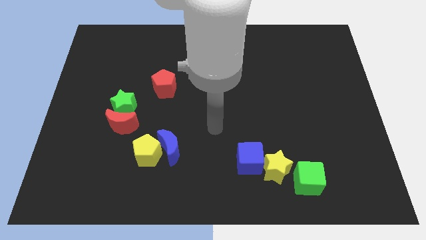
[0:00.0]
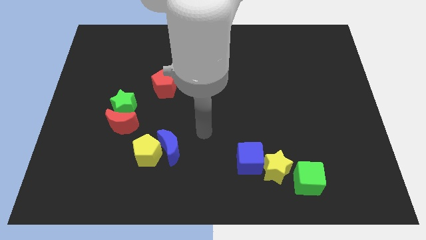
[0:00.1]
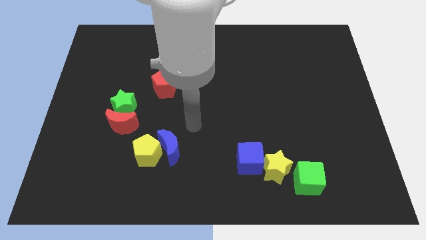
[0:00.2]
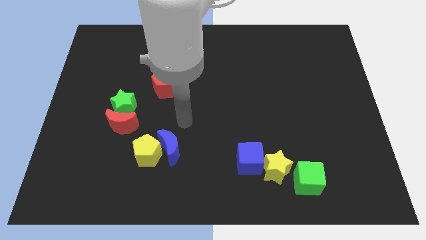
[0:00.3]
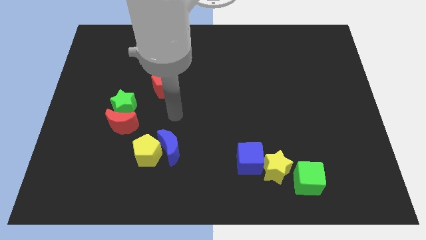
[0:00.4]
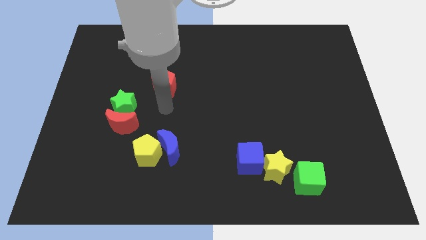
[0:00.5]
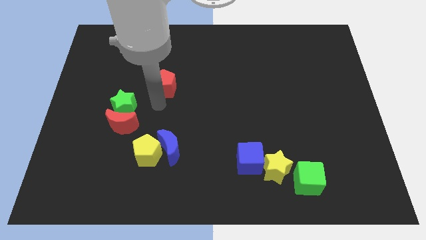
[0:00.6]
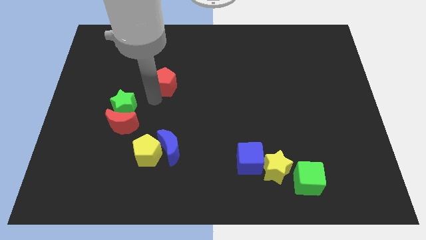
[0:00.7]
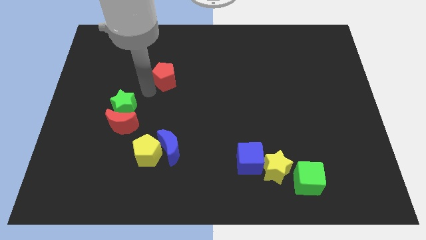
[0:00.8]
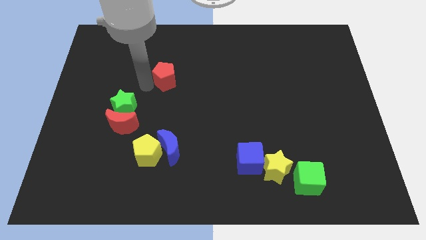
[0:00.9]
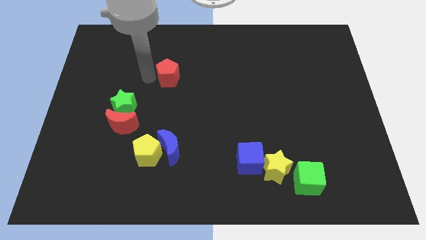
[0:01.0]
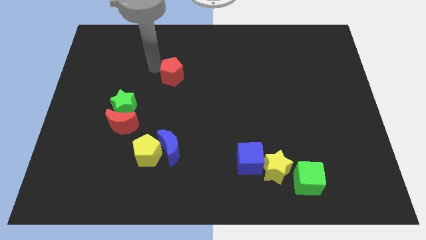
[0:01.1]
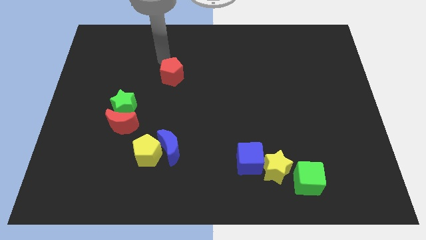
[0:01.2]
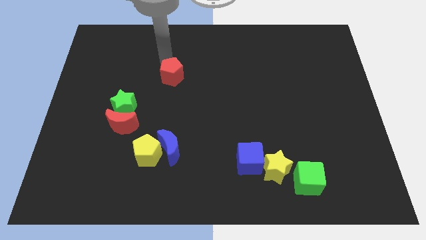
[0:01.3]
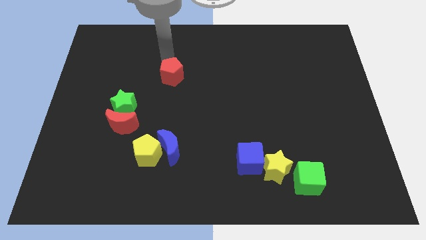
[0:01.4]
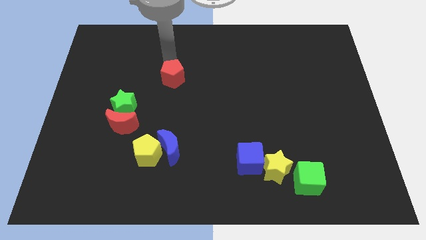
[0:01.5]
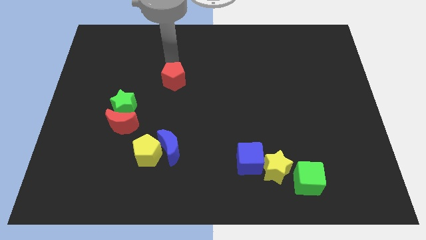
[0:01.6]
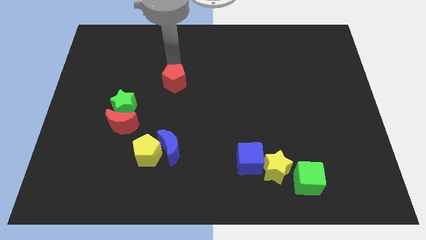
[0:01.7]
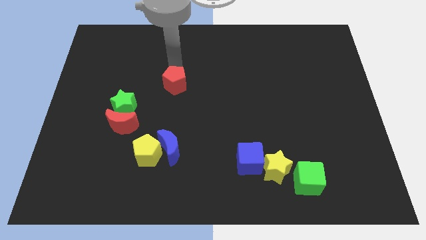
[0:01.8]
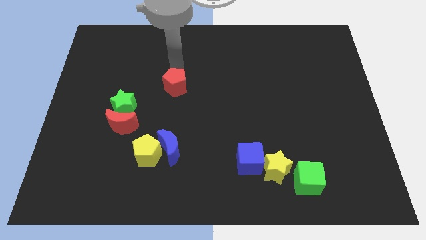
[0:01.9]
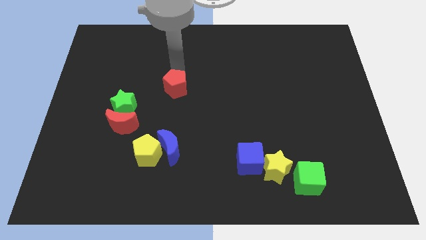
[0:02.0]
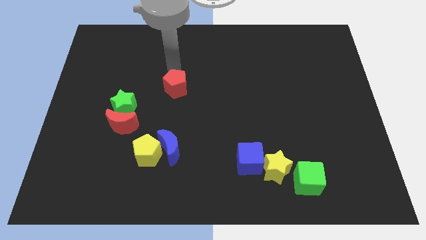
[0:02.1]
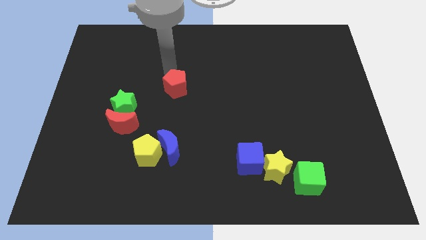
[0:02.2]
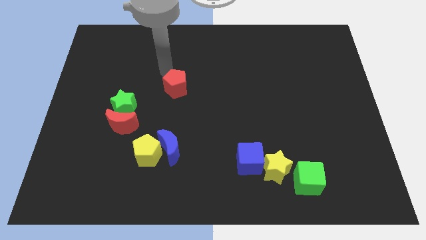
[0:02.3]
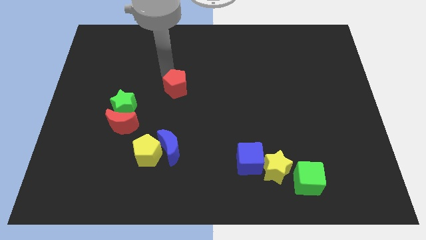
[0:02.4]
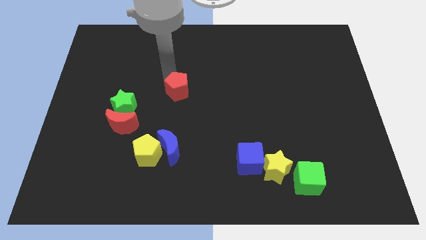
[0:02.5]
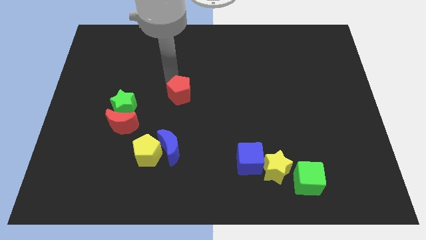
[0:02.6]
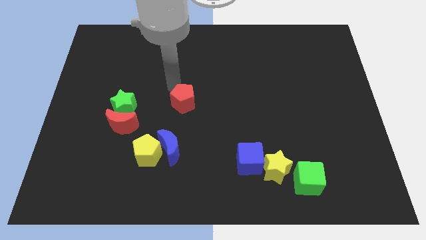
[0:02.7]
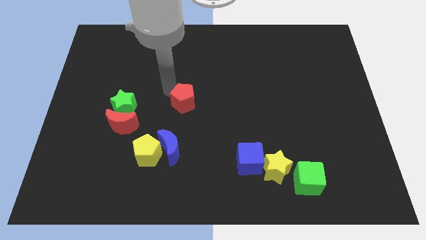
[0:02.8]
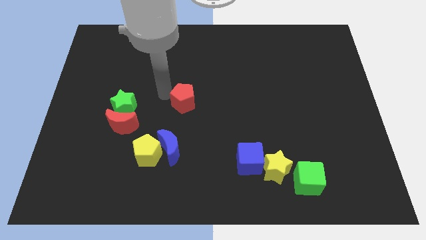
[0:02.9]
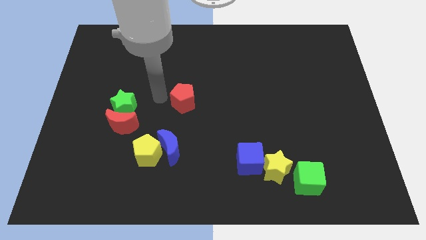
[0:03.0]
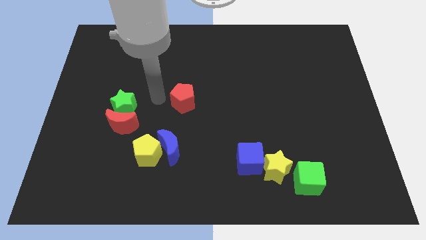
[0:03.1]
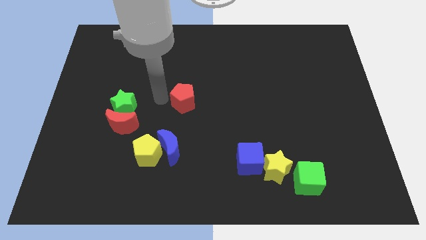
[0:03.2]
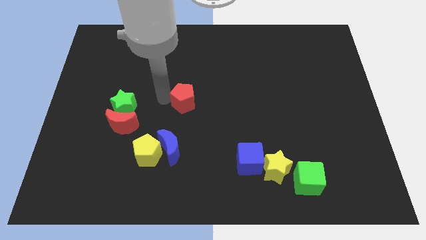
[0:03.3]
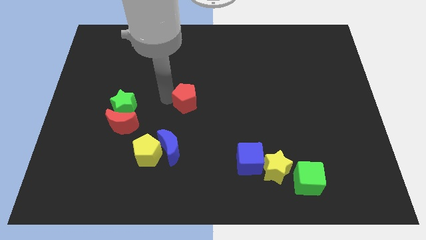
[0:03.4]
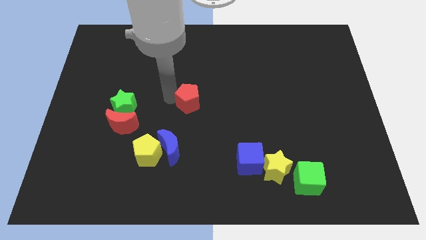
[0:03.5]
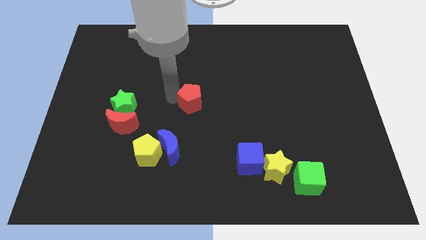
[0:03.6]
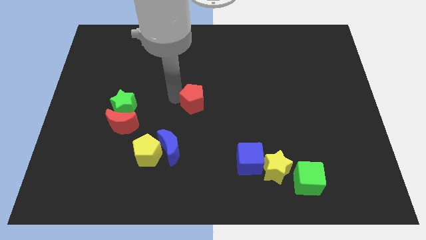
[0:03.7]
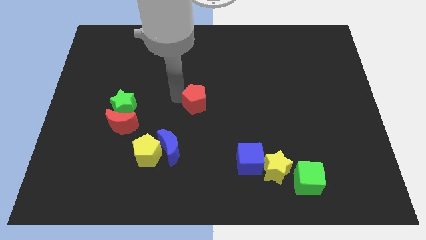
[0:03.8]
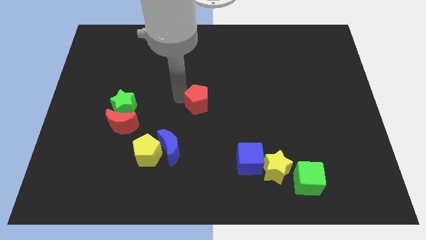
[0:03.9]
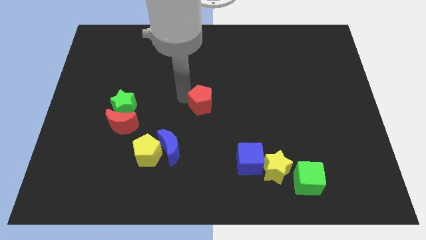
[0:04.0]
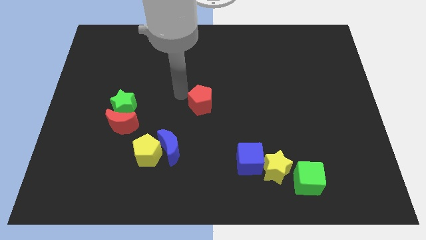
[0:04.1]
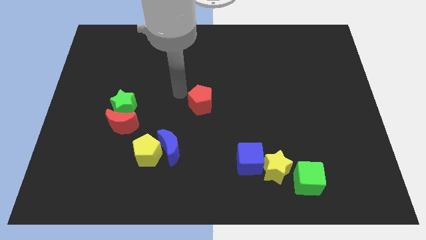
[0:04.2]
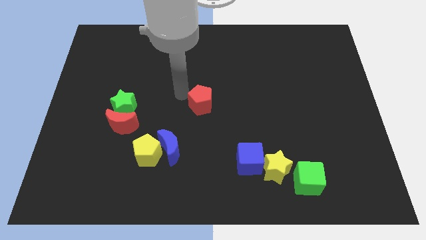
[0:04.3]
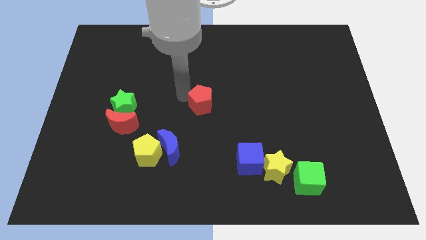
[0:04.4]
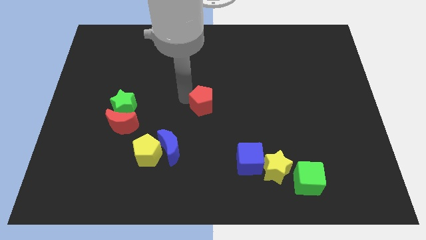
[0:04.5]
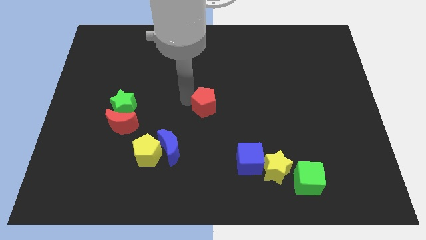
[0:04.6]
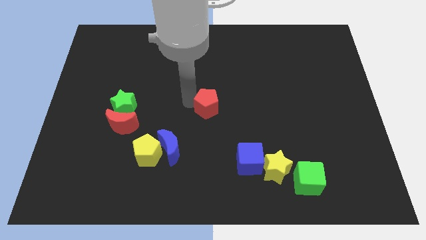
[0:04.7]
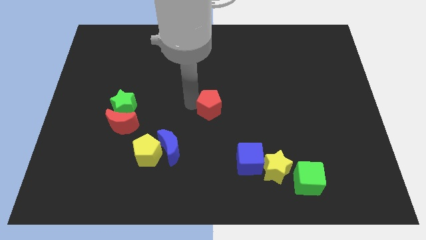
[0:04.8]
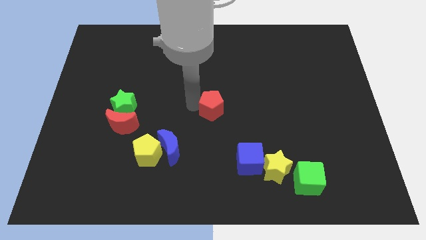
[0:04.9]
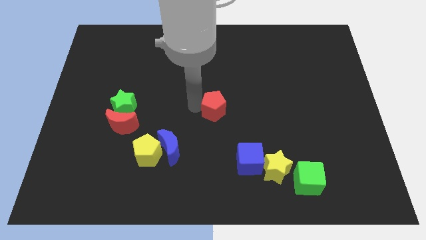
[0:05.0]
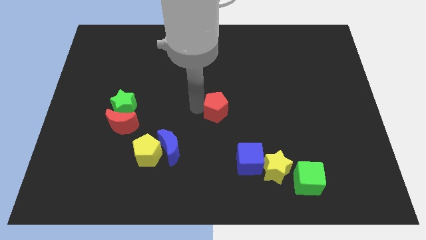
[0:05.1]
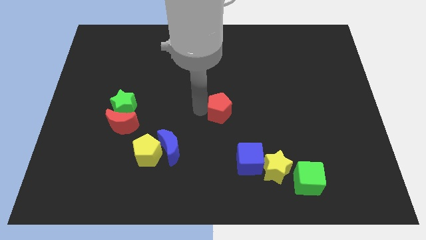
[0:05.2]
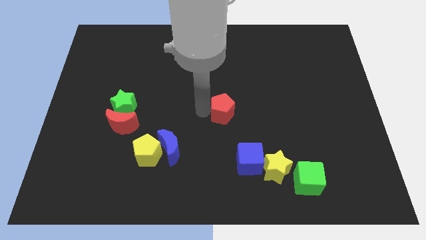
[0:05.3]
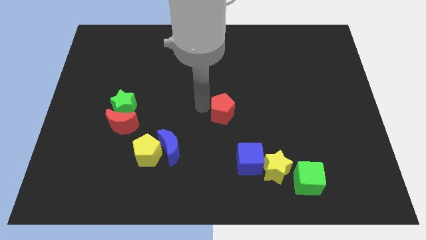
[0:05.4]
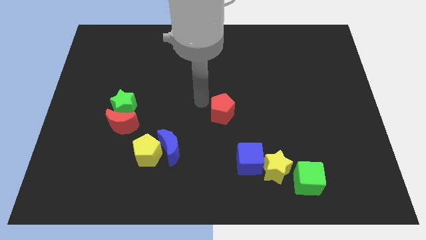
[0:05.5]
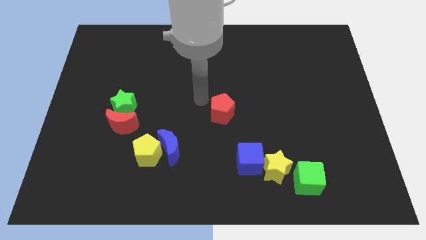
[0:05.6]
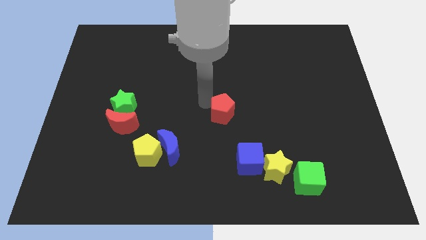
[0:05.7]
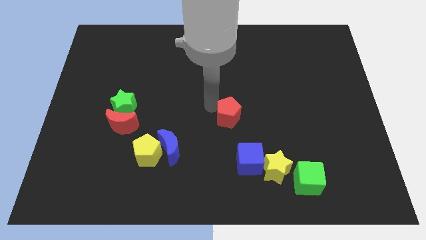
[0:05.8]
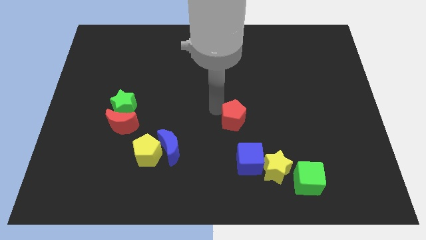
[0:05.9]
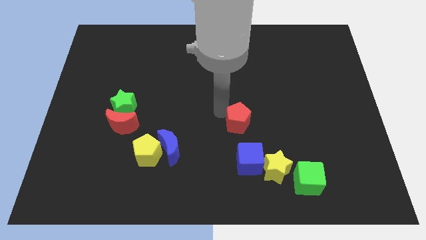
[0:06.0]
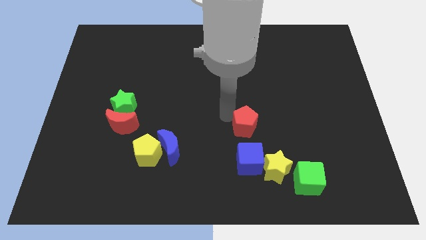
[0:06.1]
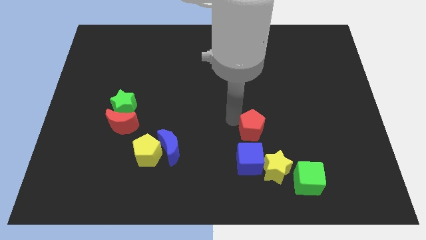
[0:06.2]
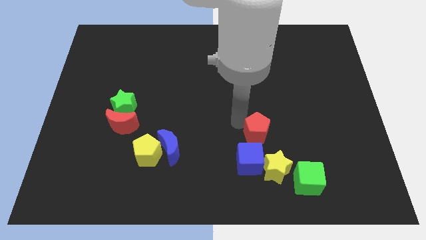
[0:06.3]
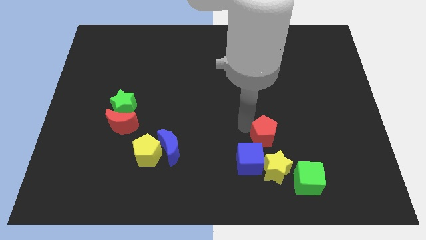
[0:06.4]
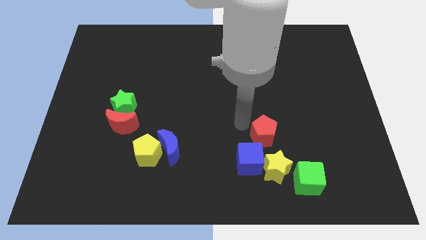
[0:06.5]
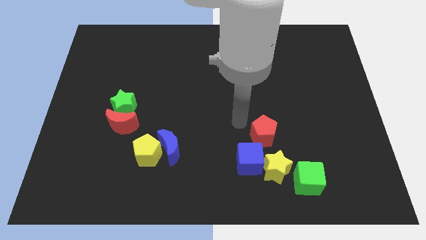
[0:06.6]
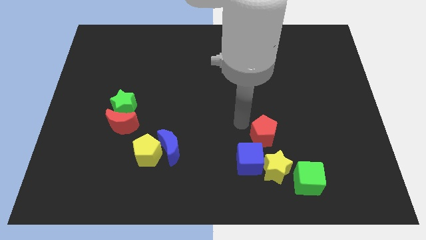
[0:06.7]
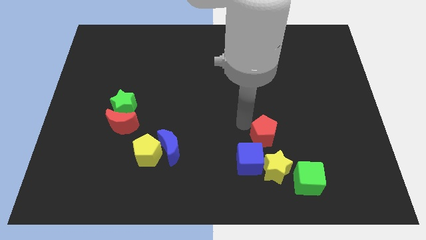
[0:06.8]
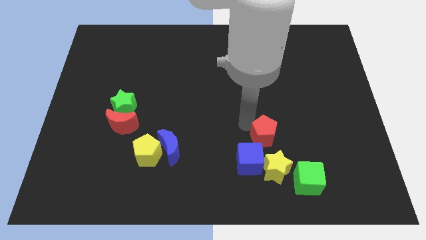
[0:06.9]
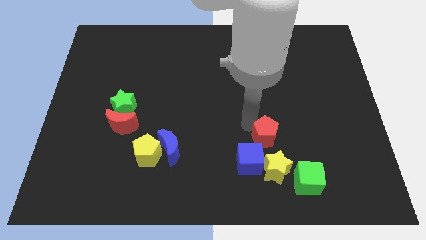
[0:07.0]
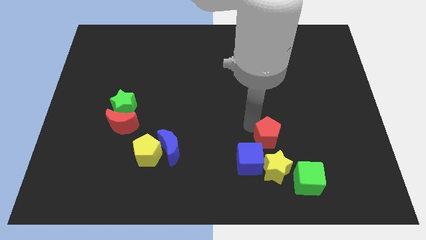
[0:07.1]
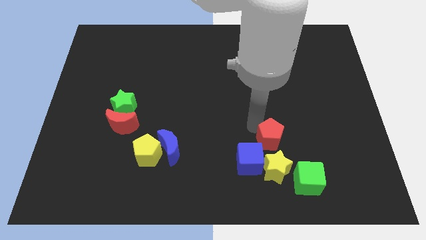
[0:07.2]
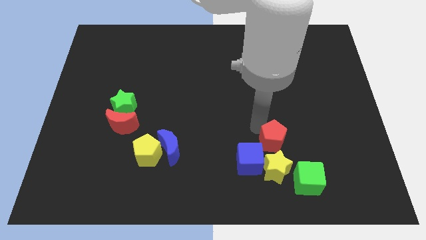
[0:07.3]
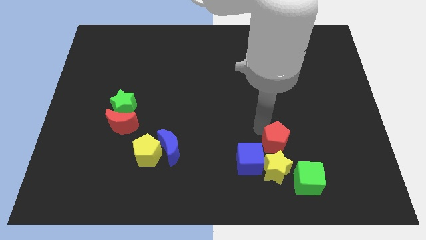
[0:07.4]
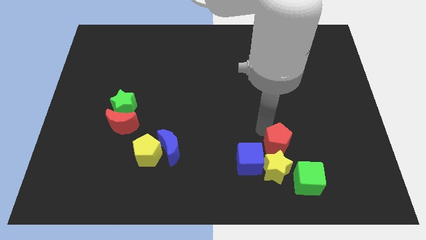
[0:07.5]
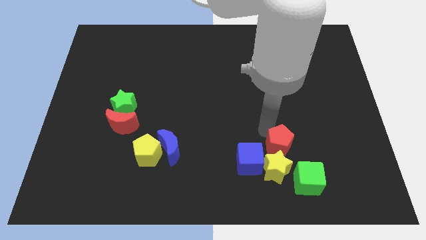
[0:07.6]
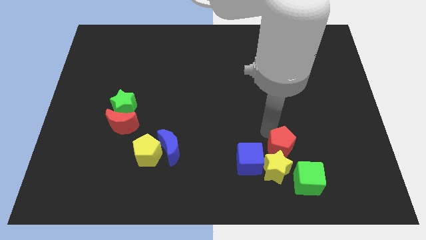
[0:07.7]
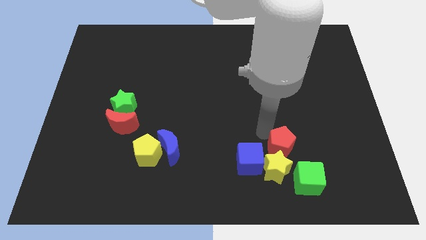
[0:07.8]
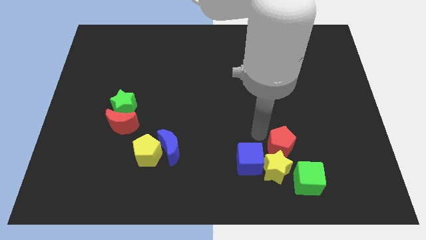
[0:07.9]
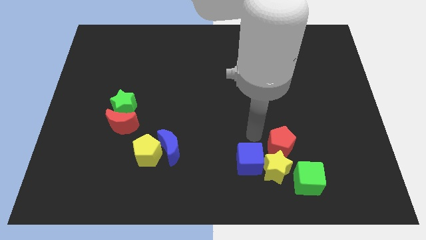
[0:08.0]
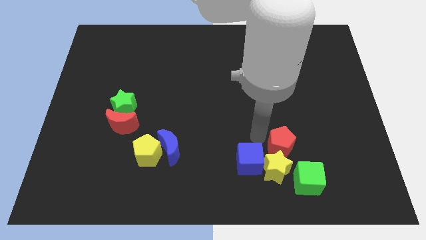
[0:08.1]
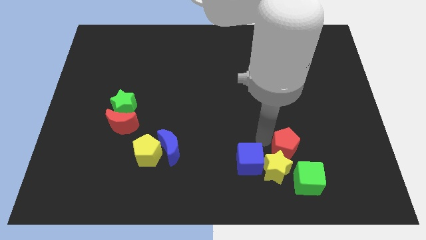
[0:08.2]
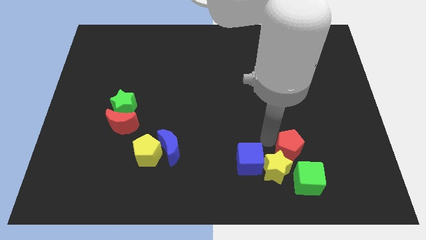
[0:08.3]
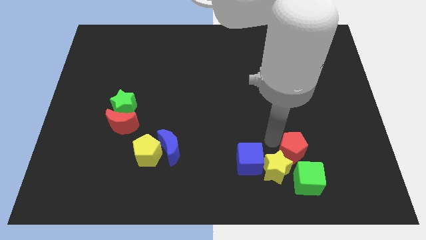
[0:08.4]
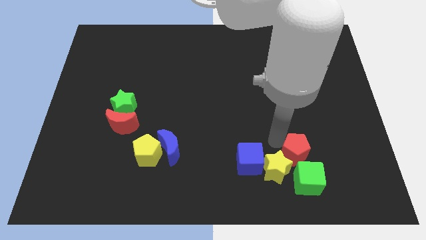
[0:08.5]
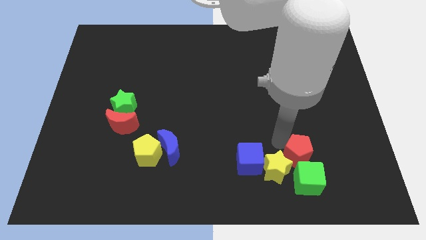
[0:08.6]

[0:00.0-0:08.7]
slide the red pentagon towards the green cube
